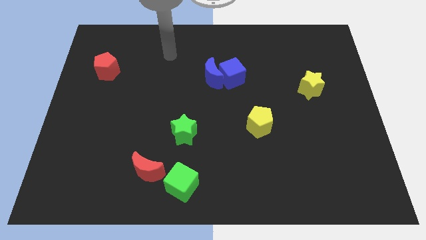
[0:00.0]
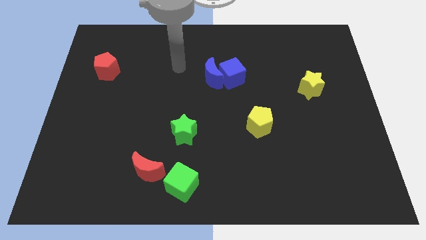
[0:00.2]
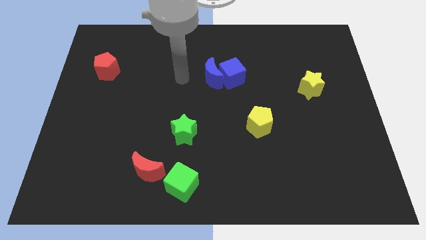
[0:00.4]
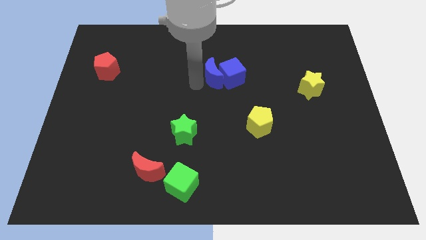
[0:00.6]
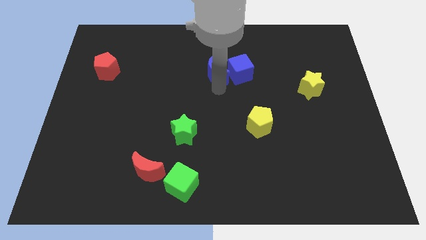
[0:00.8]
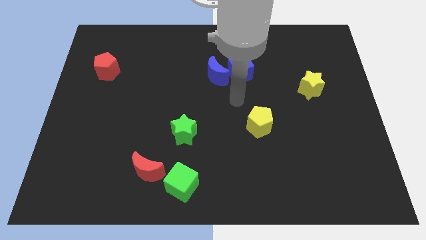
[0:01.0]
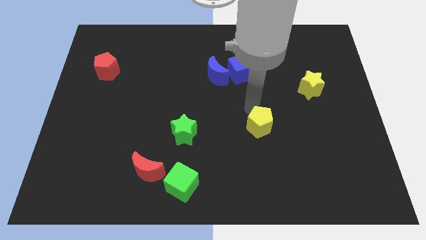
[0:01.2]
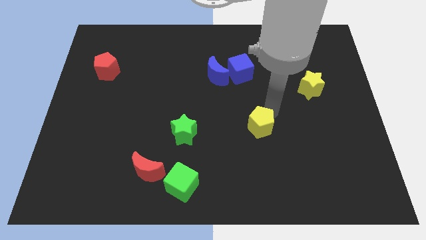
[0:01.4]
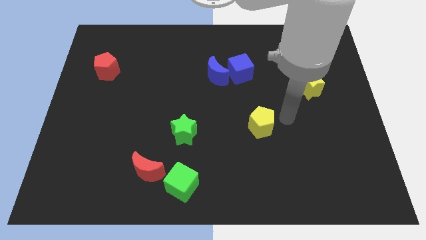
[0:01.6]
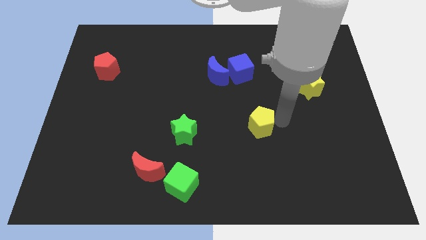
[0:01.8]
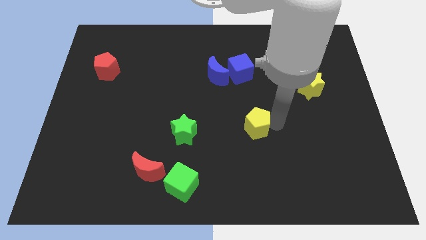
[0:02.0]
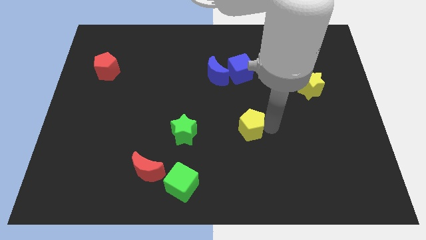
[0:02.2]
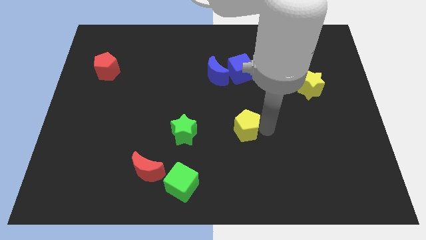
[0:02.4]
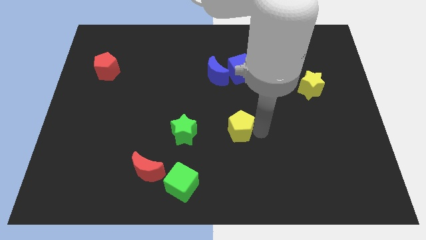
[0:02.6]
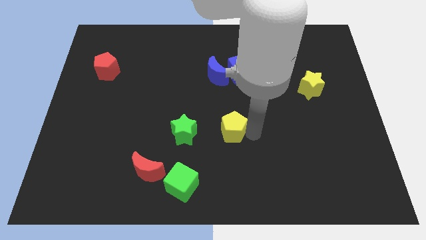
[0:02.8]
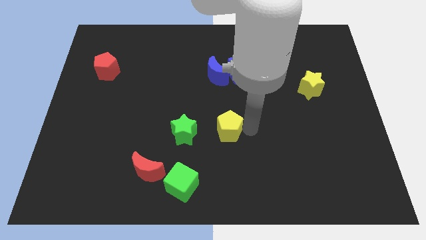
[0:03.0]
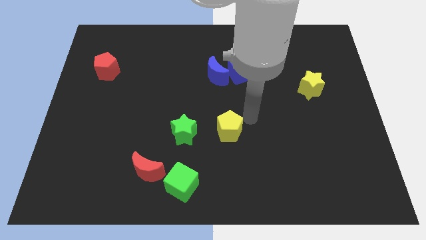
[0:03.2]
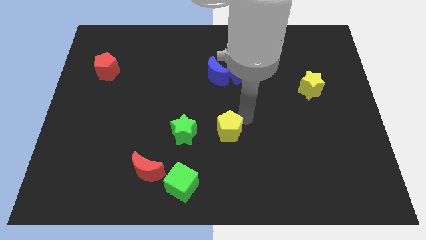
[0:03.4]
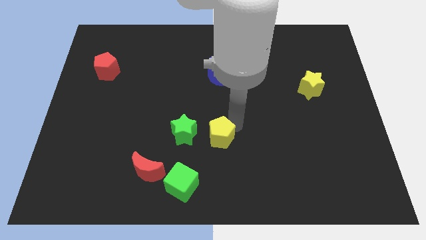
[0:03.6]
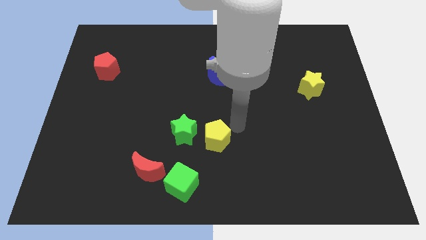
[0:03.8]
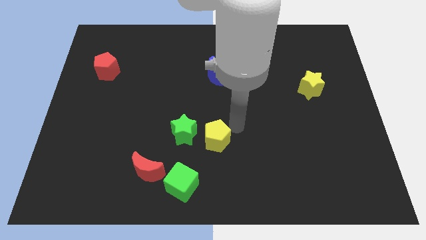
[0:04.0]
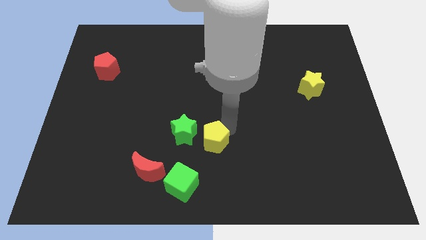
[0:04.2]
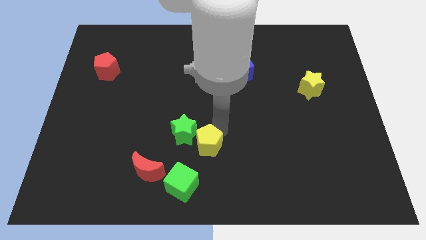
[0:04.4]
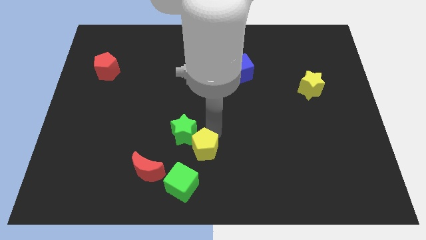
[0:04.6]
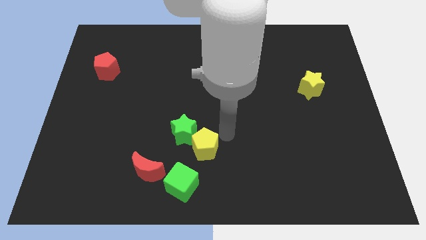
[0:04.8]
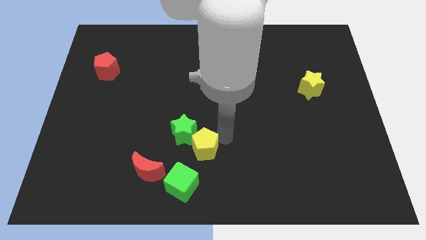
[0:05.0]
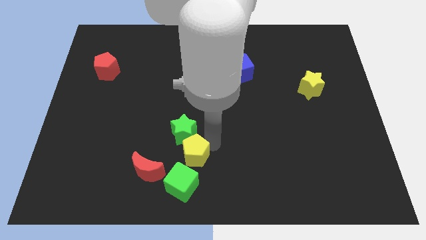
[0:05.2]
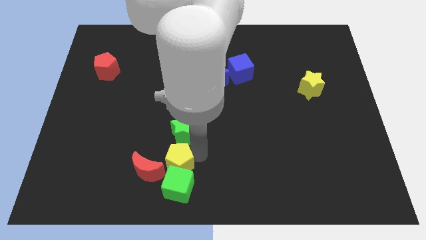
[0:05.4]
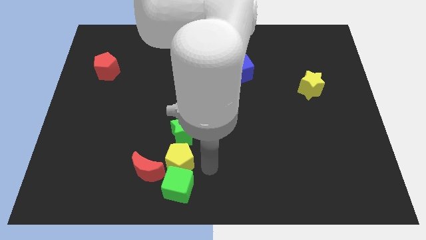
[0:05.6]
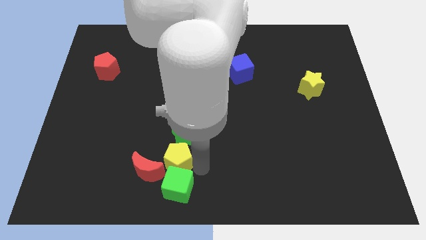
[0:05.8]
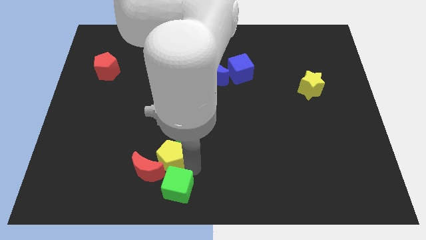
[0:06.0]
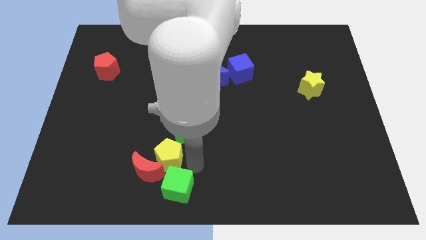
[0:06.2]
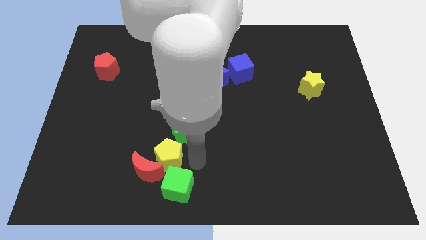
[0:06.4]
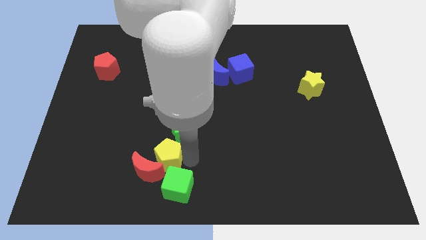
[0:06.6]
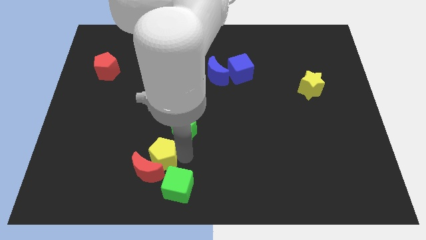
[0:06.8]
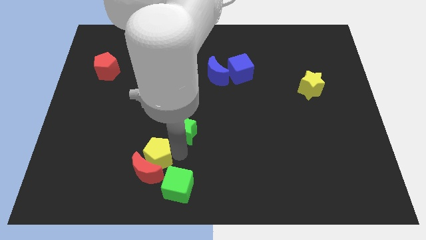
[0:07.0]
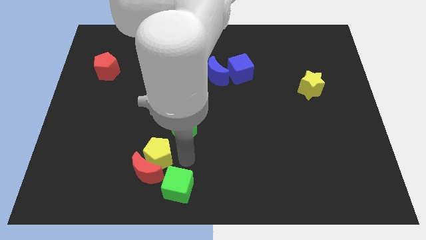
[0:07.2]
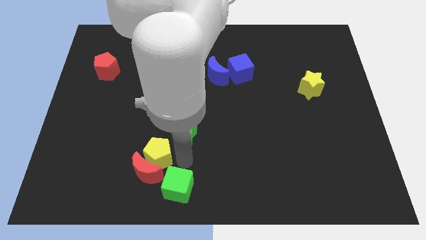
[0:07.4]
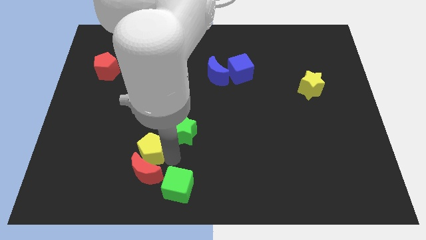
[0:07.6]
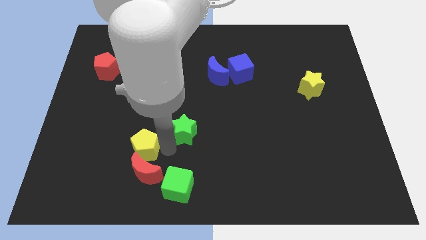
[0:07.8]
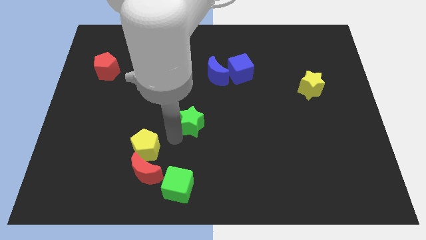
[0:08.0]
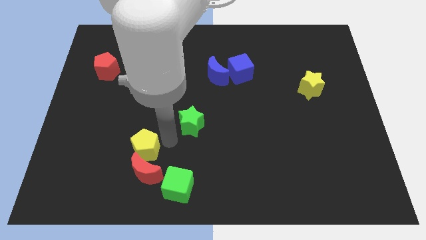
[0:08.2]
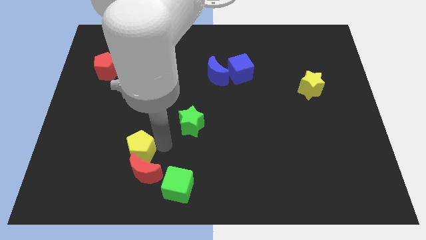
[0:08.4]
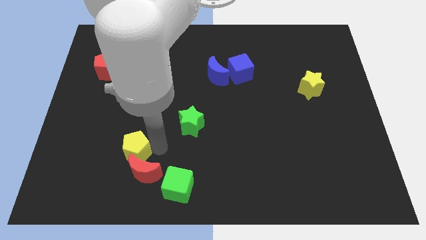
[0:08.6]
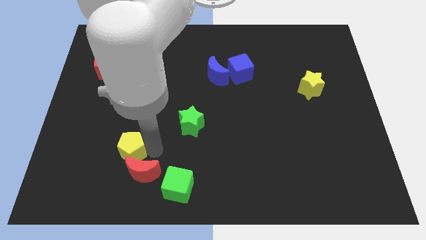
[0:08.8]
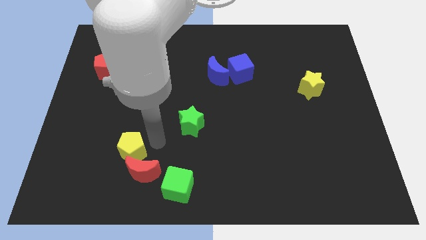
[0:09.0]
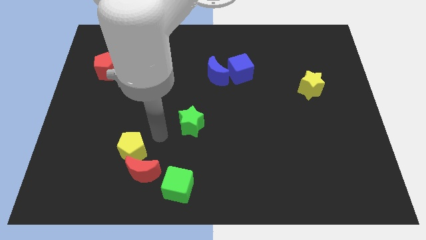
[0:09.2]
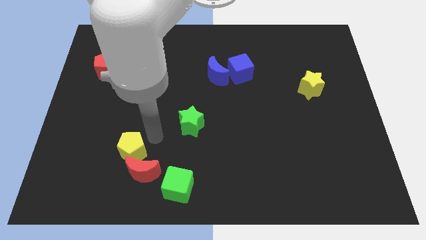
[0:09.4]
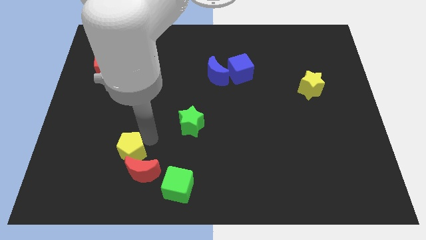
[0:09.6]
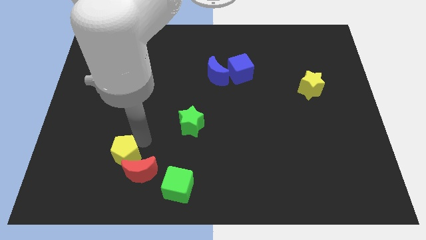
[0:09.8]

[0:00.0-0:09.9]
slide the yellow pentagon to the left of the red moon

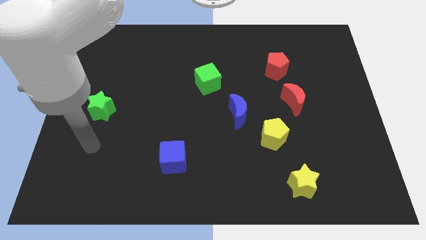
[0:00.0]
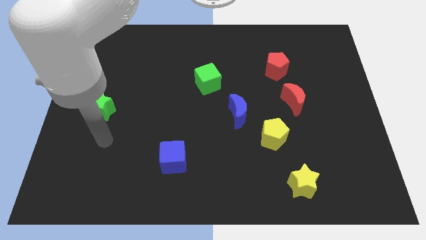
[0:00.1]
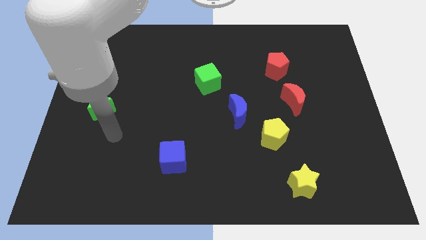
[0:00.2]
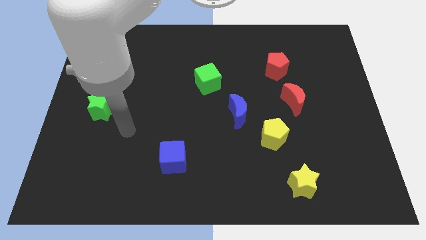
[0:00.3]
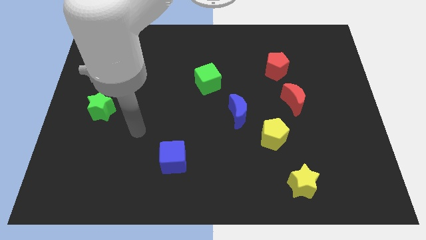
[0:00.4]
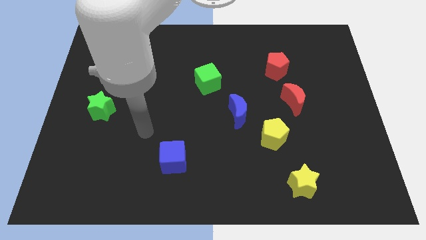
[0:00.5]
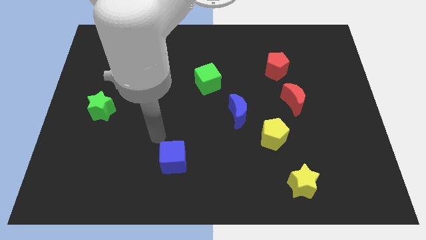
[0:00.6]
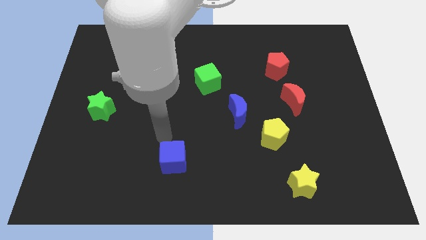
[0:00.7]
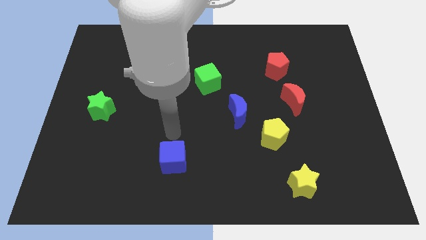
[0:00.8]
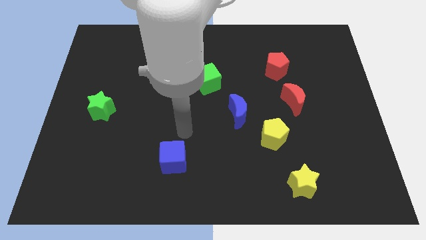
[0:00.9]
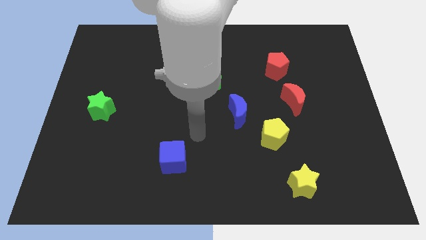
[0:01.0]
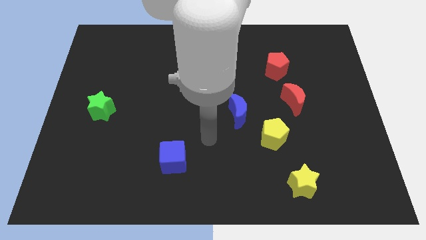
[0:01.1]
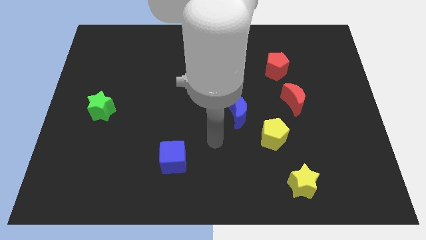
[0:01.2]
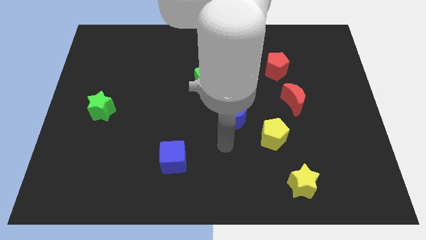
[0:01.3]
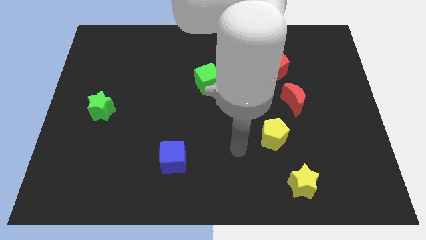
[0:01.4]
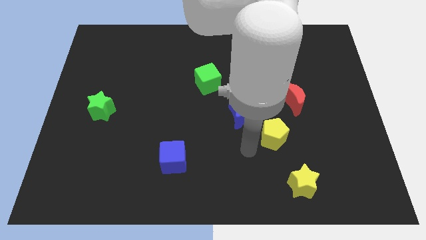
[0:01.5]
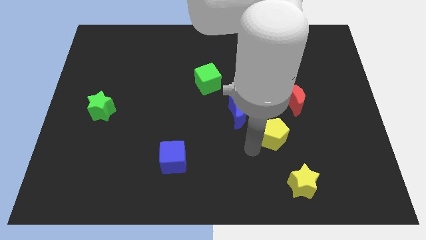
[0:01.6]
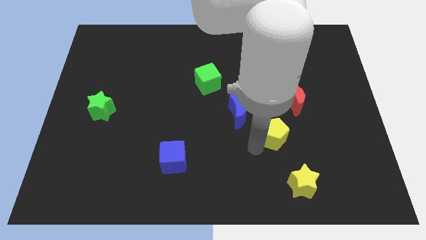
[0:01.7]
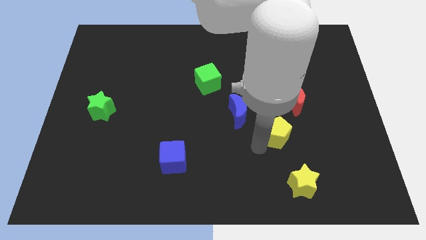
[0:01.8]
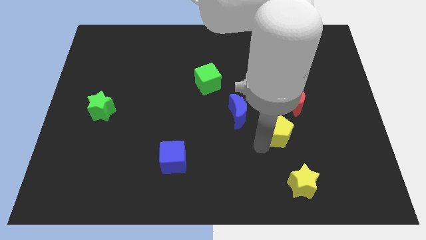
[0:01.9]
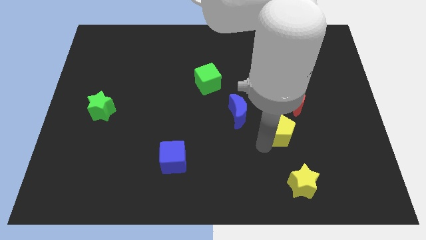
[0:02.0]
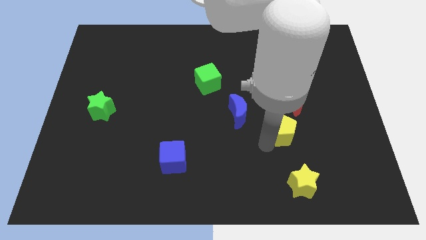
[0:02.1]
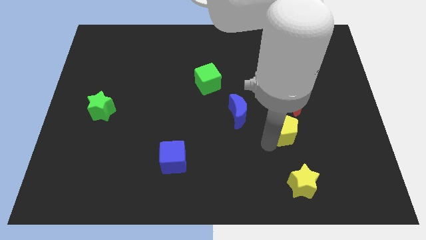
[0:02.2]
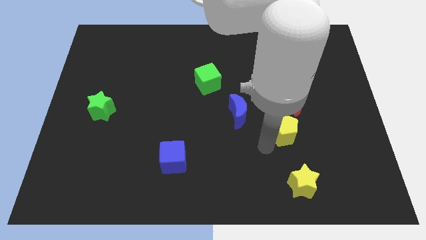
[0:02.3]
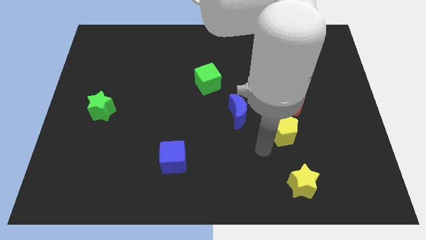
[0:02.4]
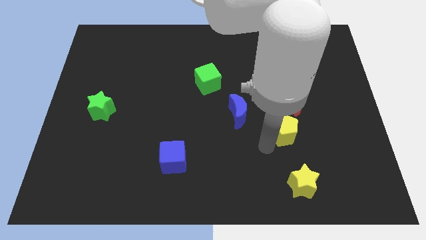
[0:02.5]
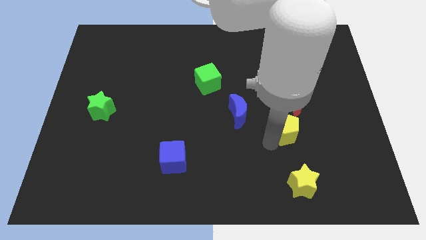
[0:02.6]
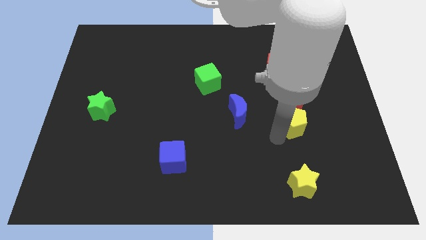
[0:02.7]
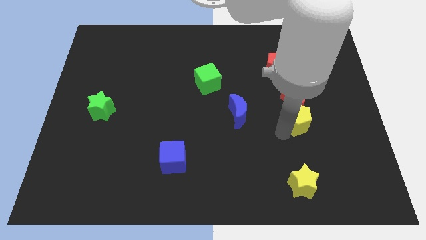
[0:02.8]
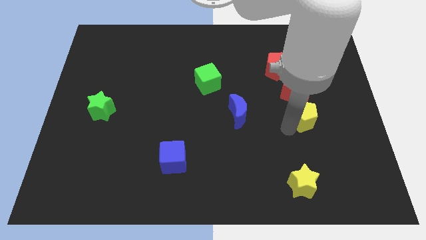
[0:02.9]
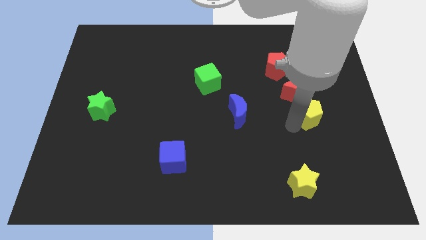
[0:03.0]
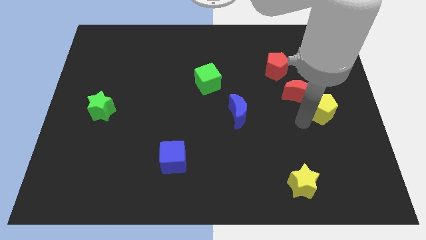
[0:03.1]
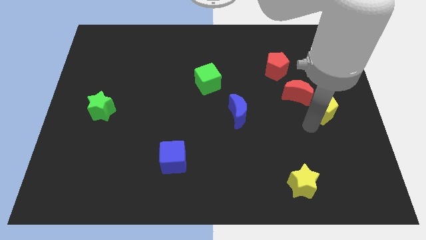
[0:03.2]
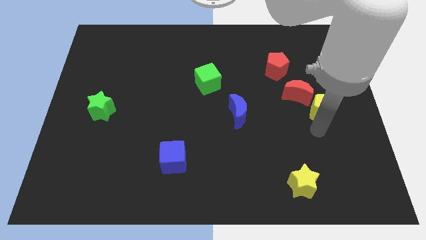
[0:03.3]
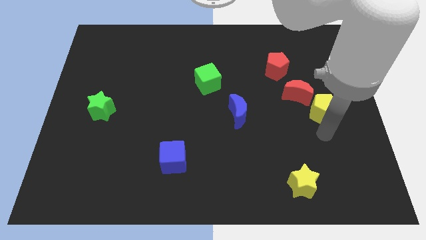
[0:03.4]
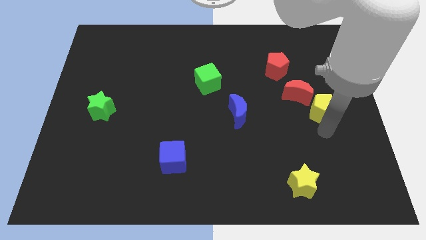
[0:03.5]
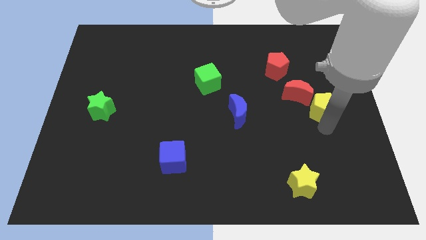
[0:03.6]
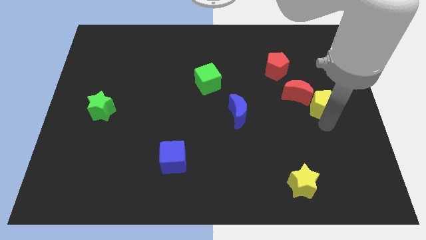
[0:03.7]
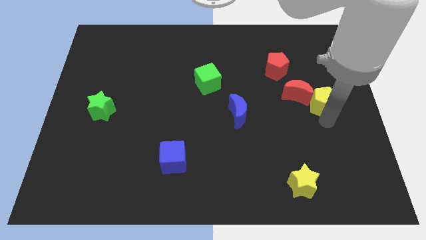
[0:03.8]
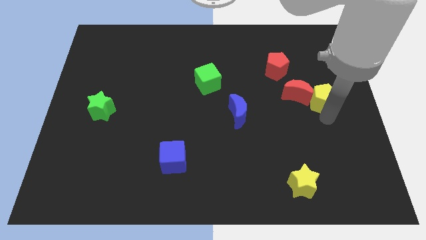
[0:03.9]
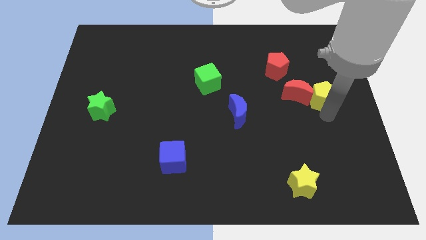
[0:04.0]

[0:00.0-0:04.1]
slide the yellow pentagon diagonally up and to the right of the red moon
